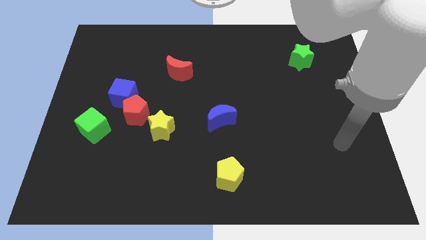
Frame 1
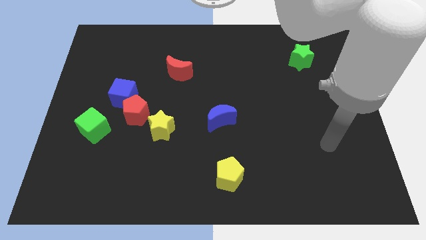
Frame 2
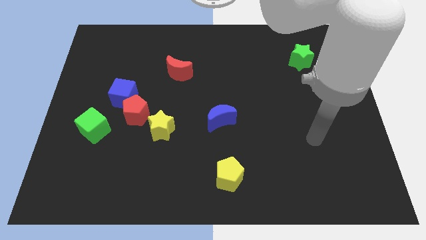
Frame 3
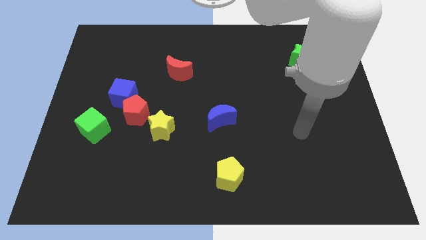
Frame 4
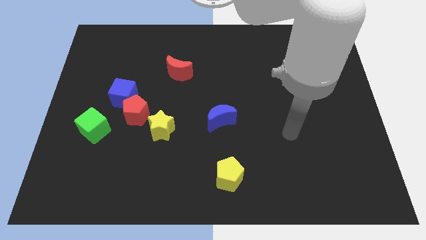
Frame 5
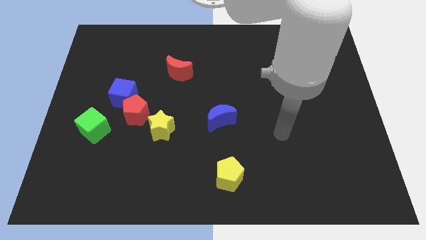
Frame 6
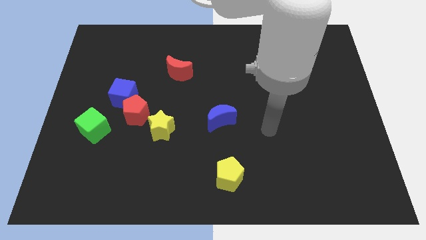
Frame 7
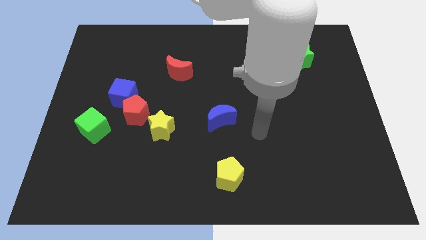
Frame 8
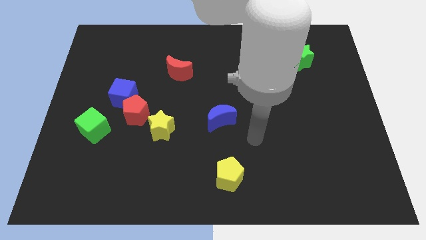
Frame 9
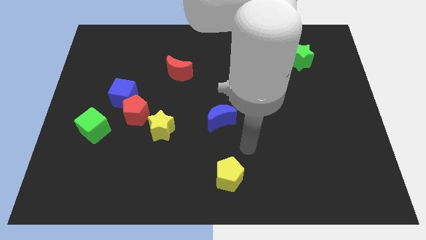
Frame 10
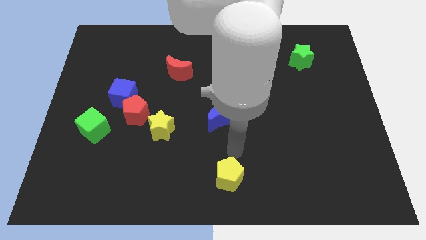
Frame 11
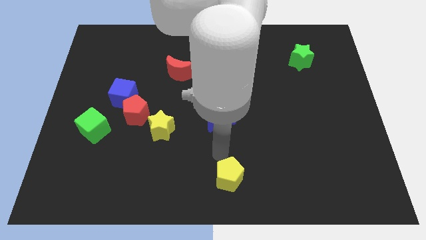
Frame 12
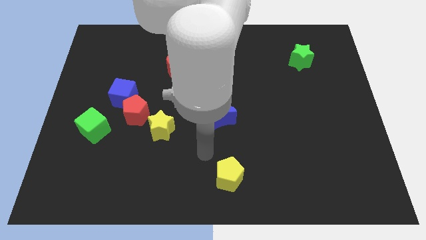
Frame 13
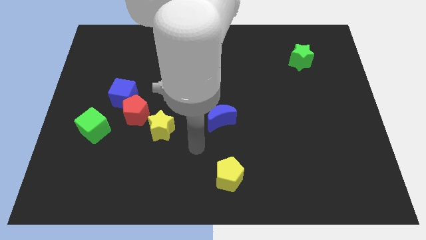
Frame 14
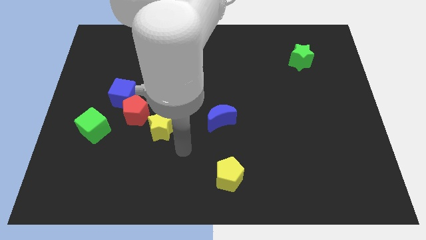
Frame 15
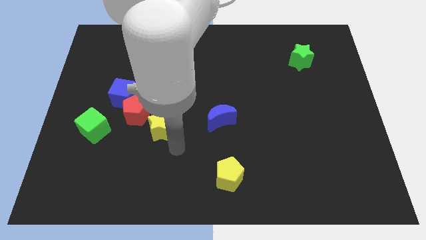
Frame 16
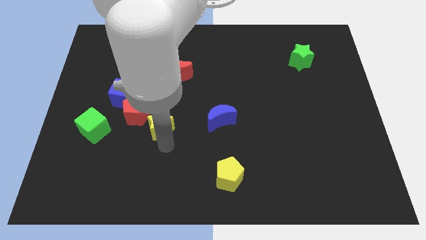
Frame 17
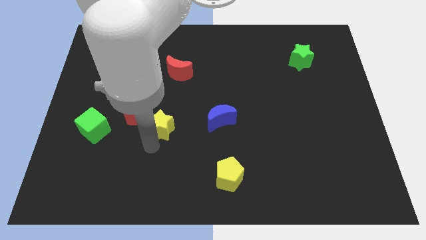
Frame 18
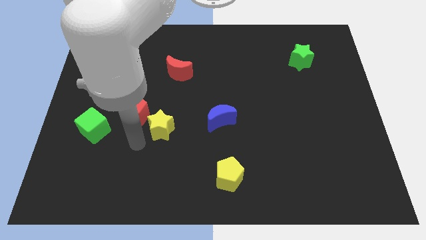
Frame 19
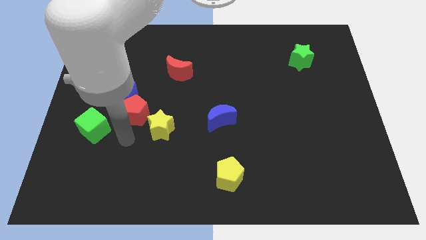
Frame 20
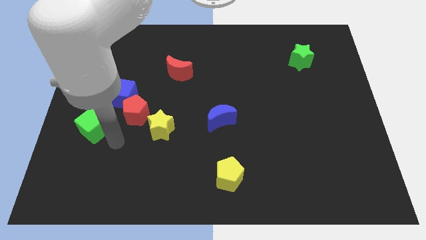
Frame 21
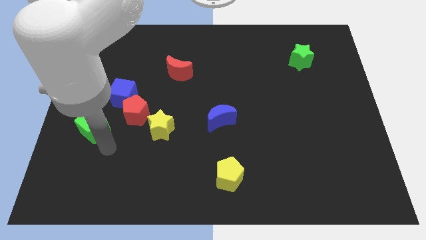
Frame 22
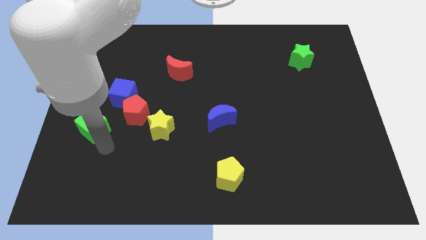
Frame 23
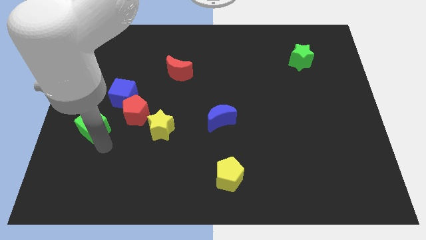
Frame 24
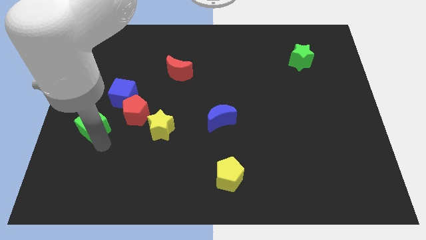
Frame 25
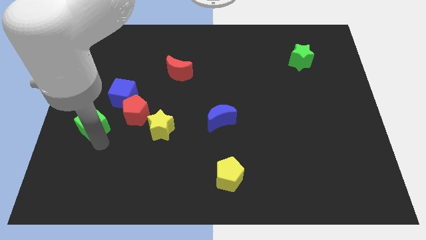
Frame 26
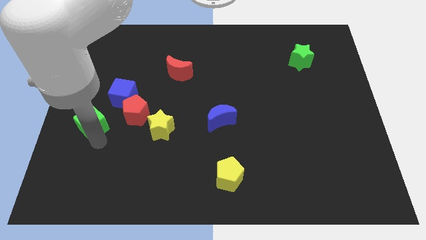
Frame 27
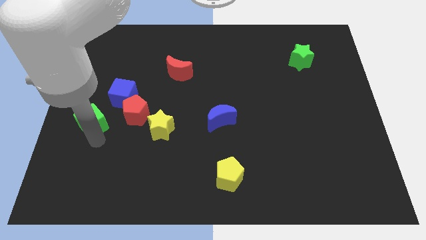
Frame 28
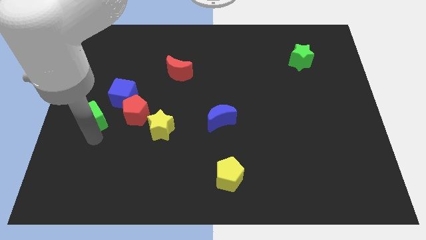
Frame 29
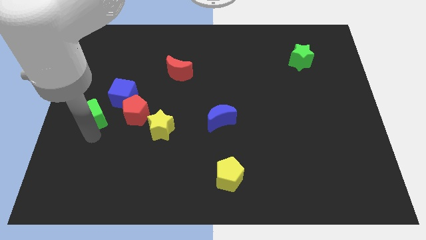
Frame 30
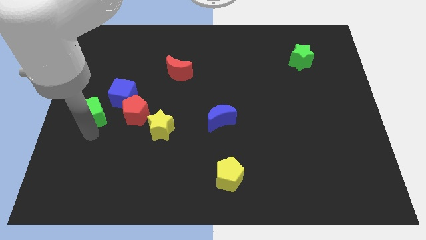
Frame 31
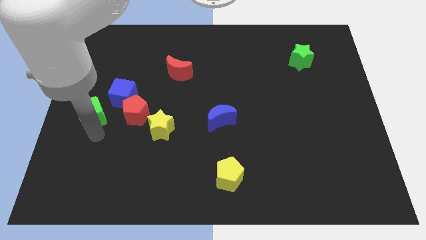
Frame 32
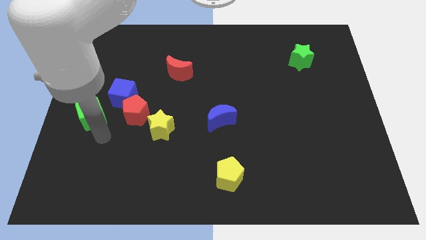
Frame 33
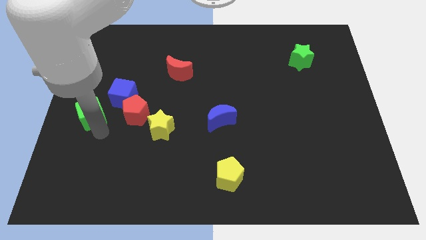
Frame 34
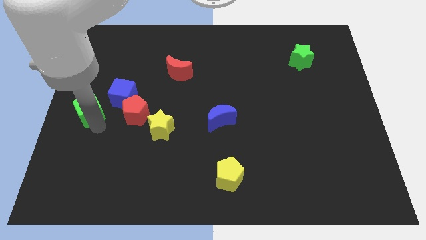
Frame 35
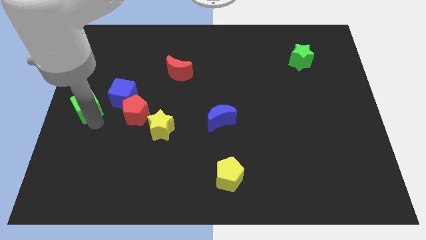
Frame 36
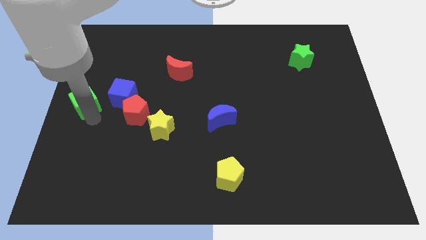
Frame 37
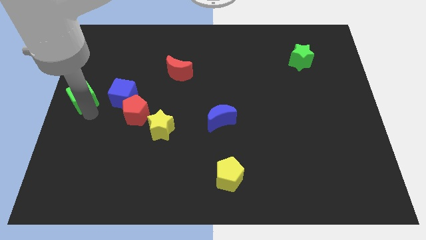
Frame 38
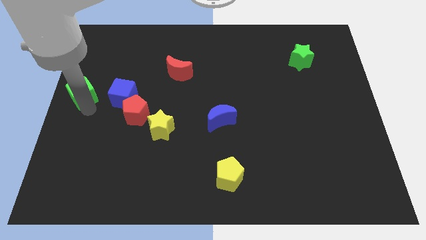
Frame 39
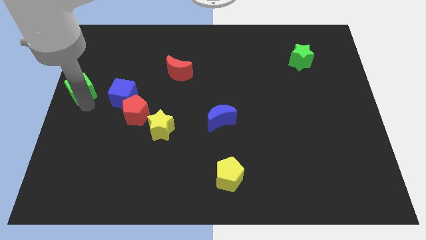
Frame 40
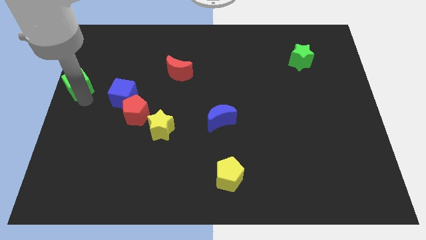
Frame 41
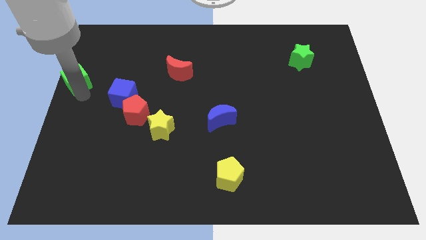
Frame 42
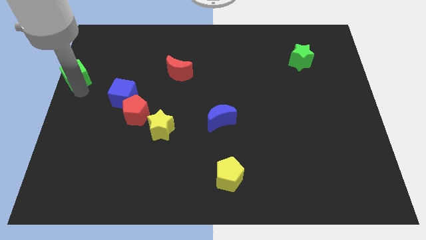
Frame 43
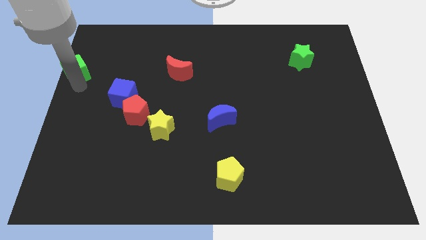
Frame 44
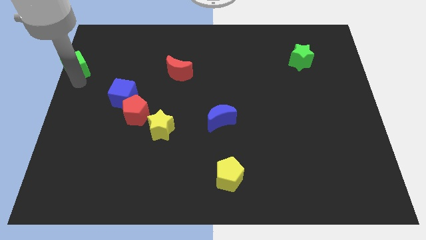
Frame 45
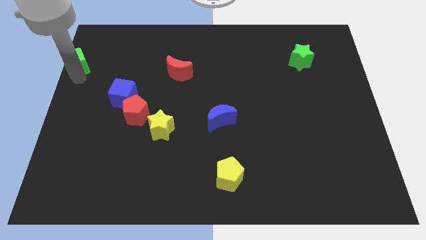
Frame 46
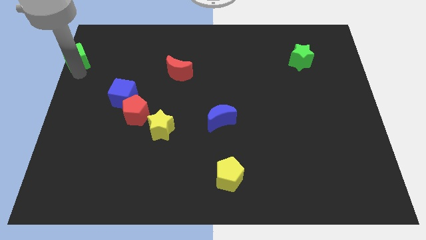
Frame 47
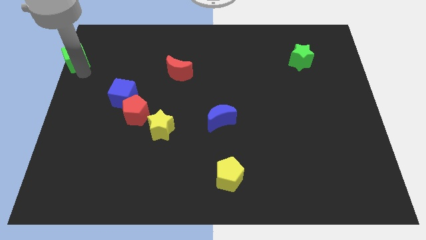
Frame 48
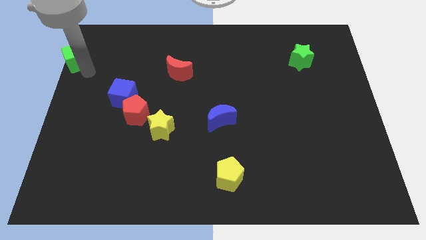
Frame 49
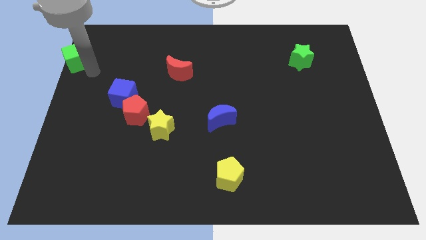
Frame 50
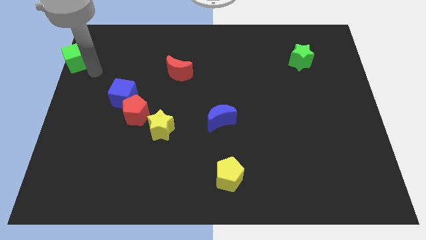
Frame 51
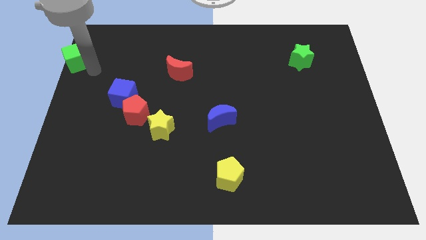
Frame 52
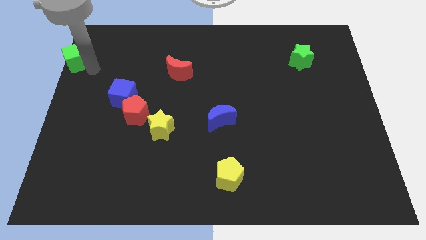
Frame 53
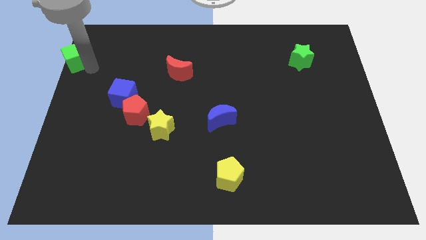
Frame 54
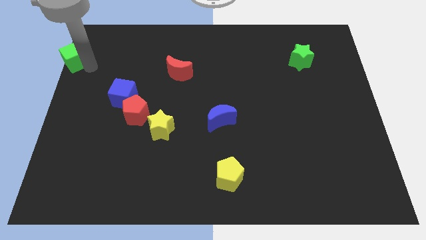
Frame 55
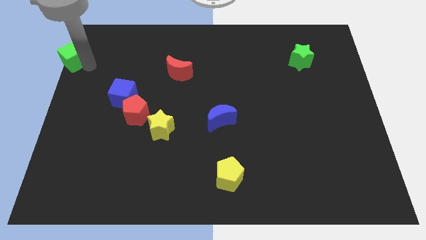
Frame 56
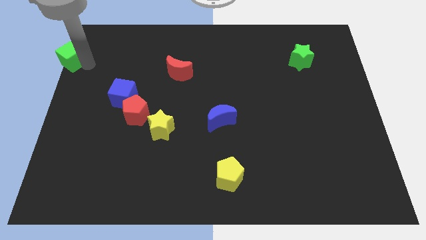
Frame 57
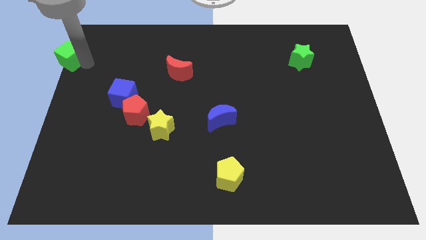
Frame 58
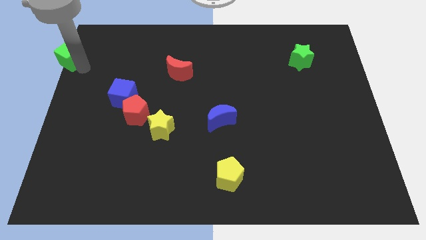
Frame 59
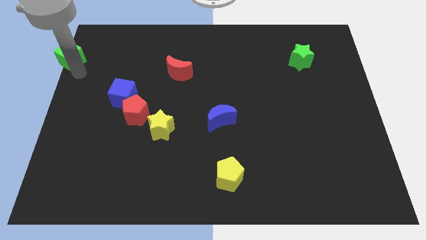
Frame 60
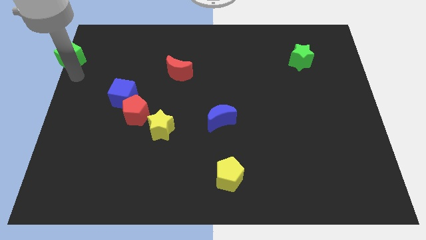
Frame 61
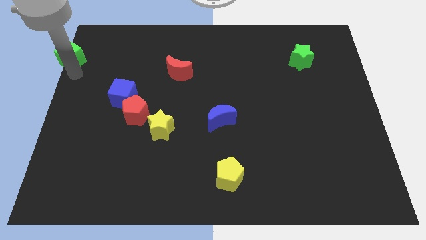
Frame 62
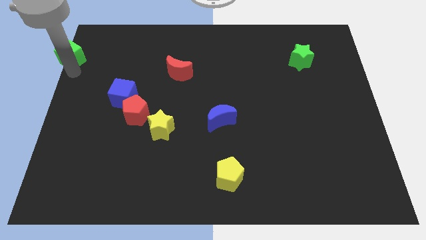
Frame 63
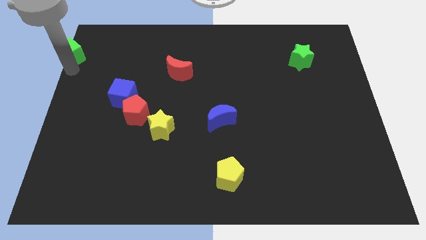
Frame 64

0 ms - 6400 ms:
put the green cube to the upper left corner
